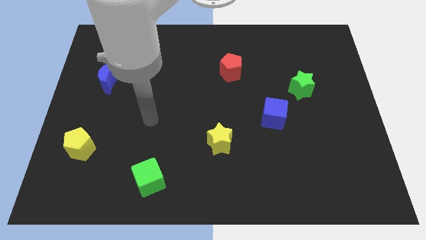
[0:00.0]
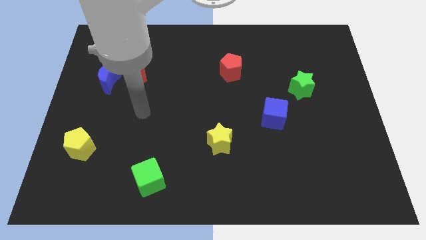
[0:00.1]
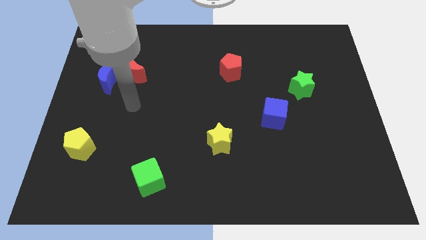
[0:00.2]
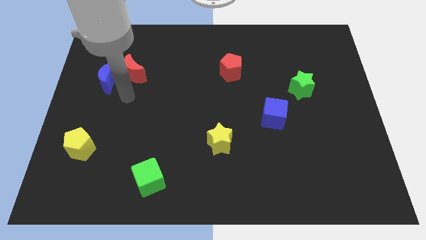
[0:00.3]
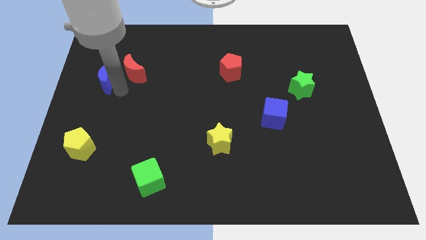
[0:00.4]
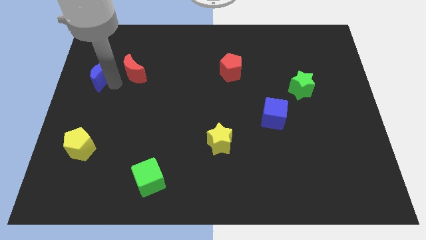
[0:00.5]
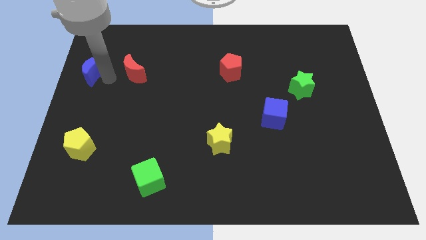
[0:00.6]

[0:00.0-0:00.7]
move the red moon away from the blue moon

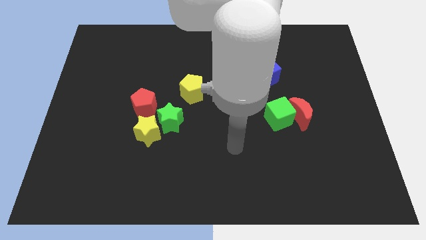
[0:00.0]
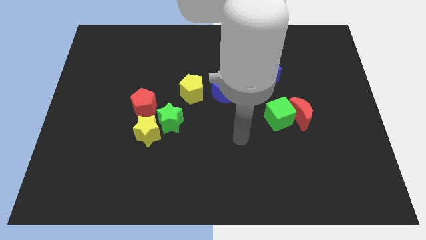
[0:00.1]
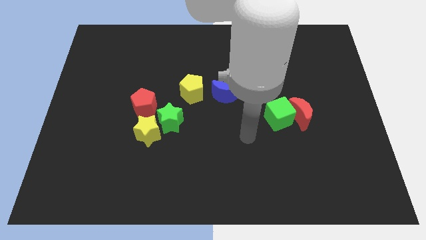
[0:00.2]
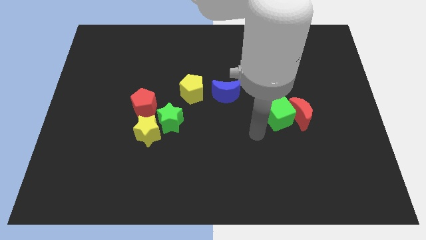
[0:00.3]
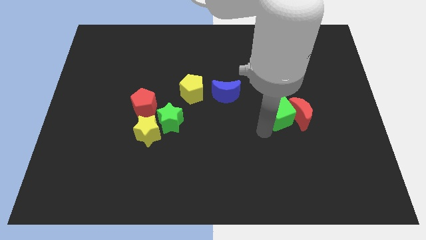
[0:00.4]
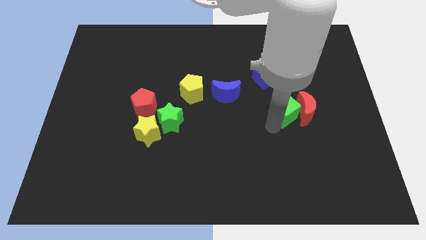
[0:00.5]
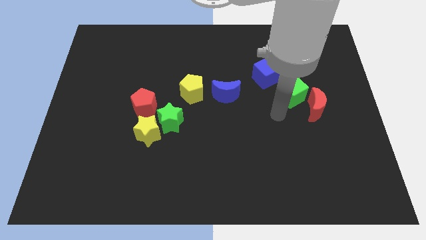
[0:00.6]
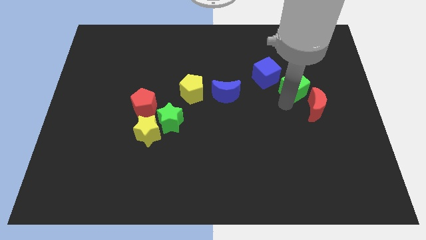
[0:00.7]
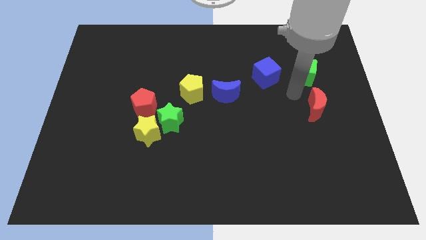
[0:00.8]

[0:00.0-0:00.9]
separate the red moon from the green cube

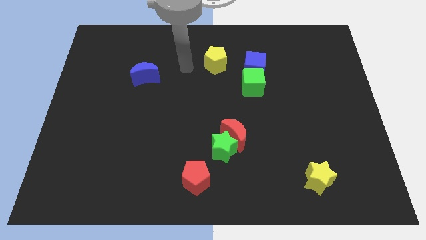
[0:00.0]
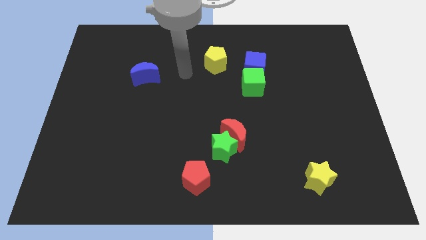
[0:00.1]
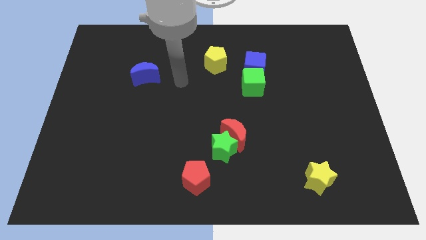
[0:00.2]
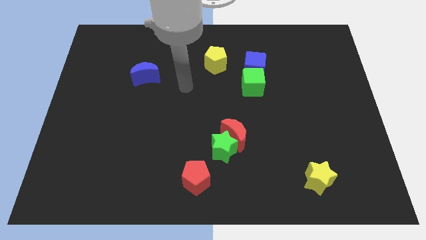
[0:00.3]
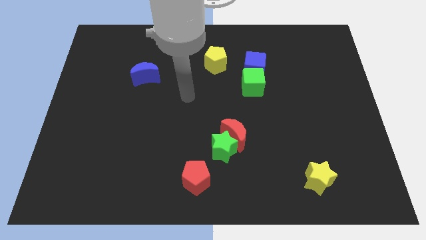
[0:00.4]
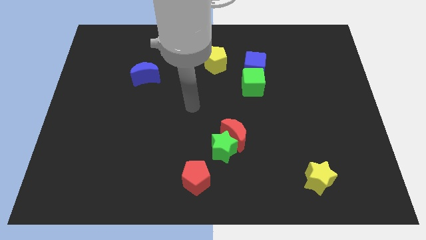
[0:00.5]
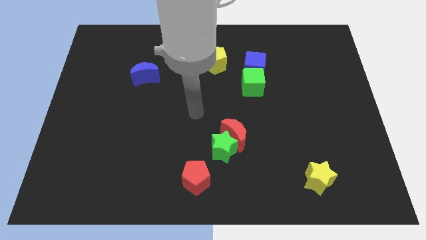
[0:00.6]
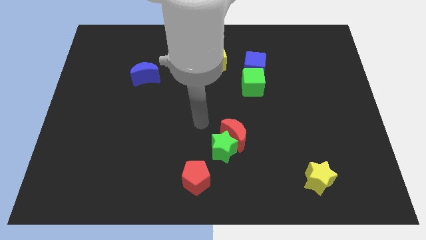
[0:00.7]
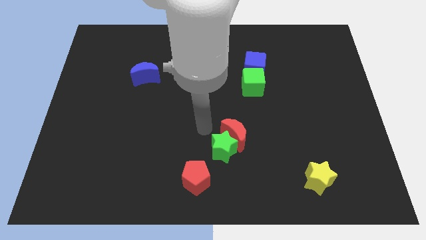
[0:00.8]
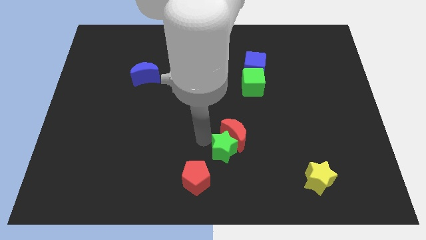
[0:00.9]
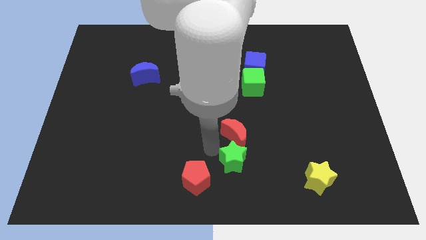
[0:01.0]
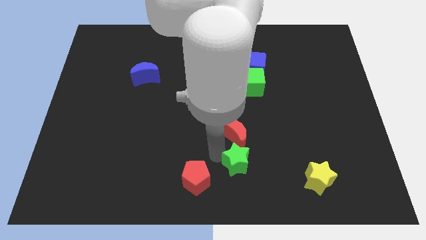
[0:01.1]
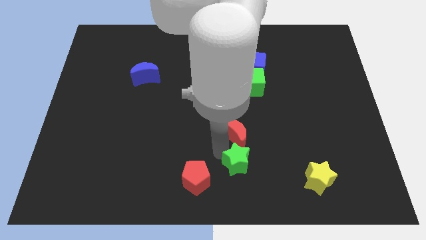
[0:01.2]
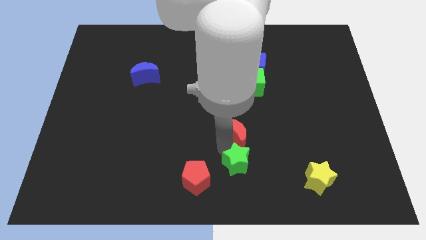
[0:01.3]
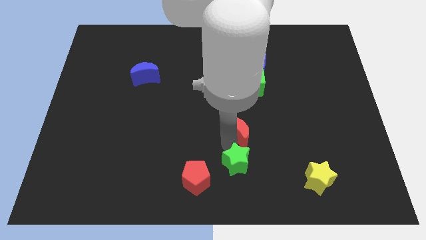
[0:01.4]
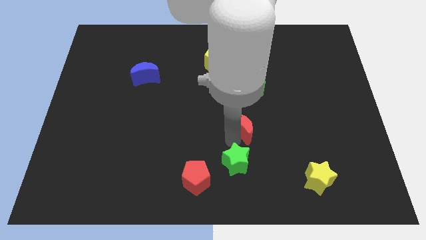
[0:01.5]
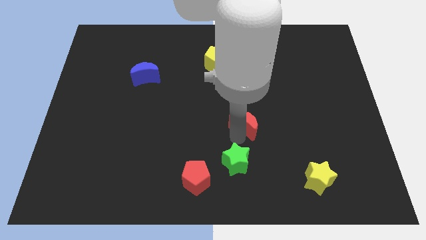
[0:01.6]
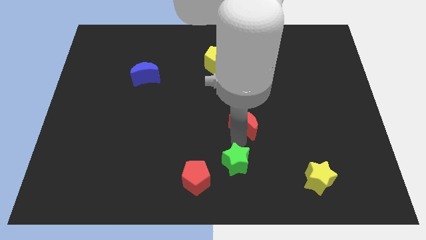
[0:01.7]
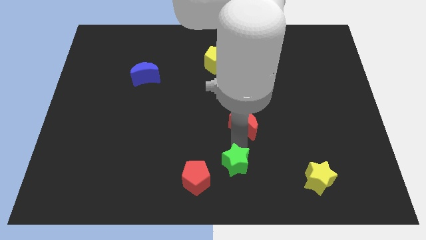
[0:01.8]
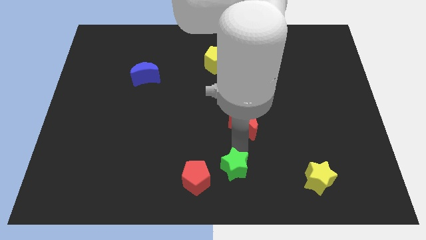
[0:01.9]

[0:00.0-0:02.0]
separate the red moon from the green star

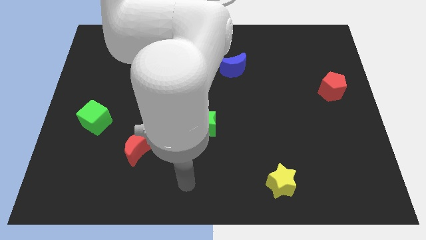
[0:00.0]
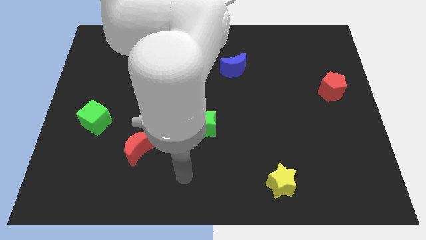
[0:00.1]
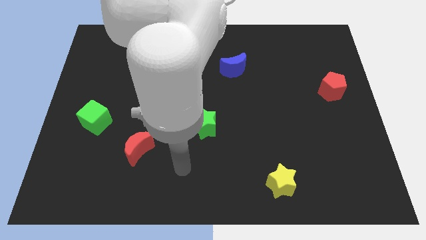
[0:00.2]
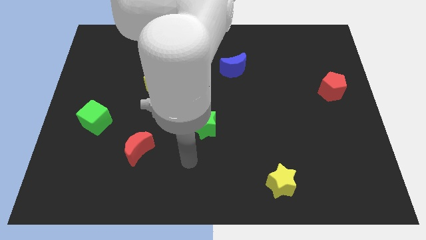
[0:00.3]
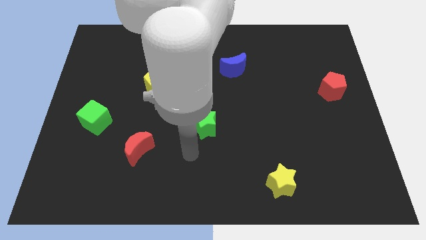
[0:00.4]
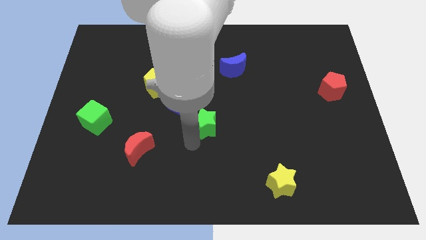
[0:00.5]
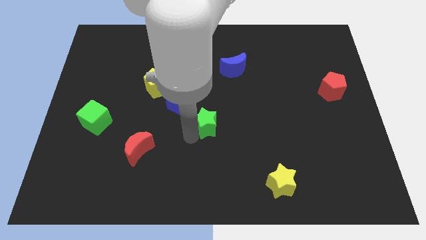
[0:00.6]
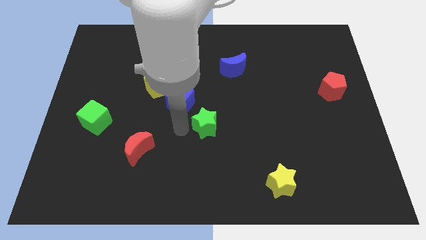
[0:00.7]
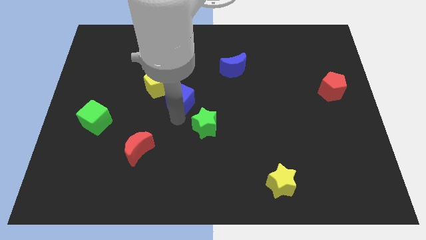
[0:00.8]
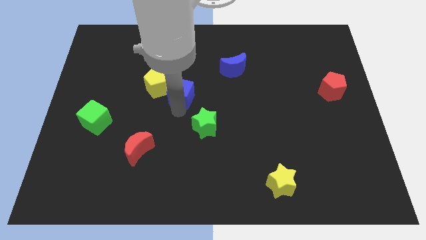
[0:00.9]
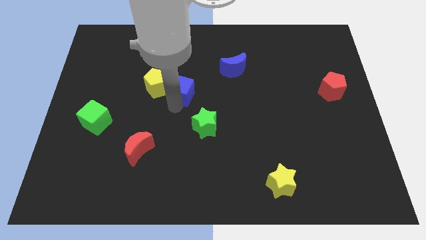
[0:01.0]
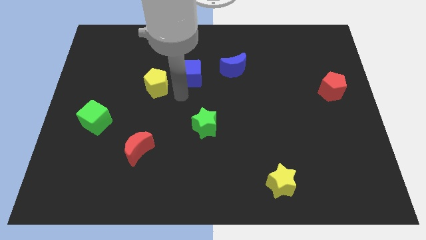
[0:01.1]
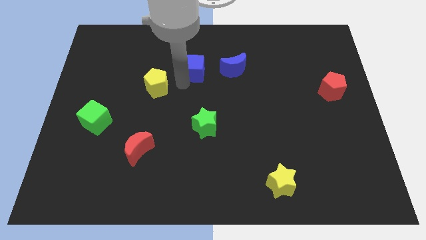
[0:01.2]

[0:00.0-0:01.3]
move the yellow pentagon away from the blue cube

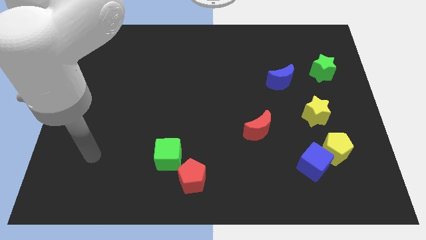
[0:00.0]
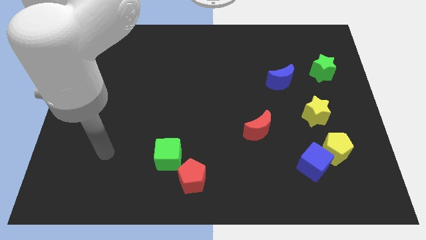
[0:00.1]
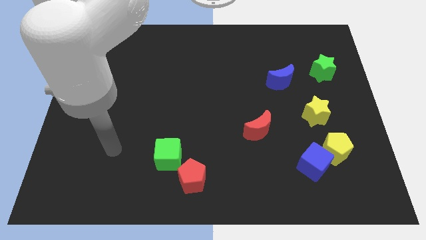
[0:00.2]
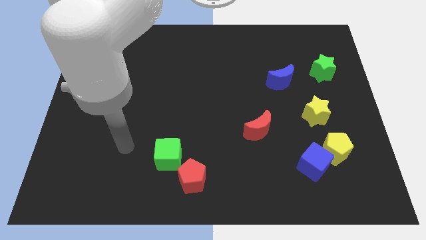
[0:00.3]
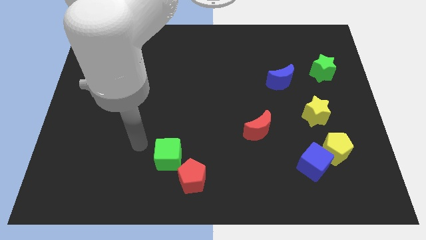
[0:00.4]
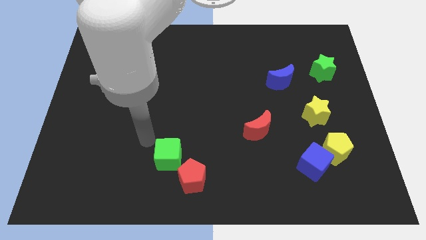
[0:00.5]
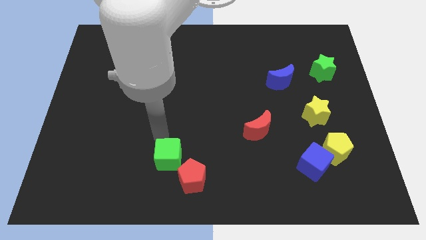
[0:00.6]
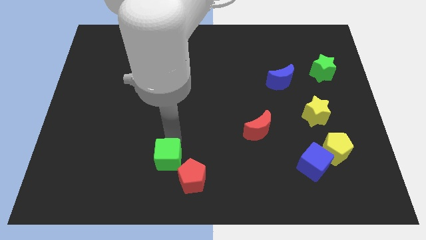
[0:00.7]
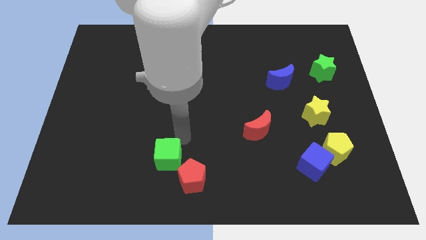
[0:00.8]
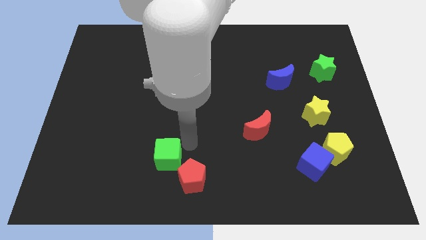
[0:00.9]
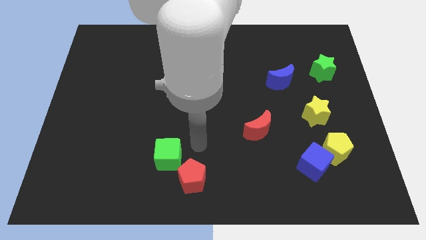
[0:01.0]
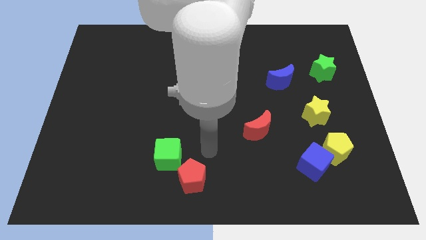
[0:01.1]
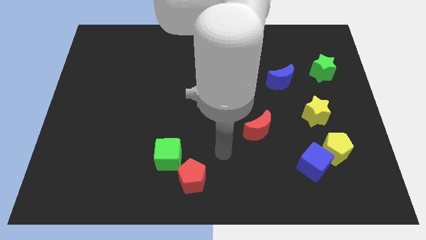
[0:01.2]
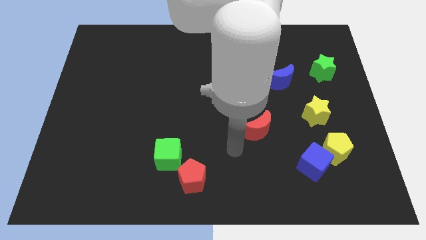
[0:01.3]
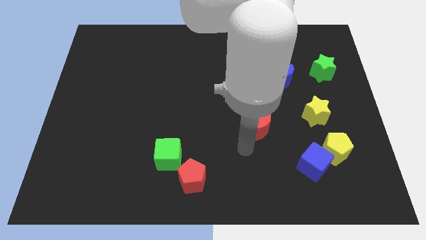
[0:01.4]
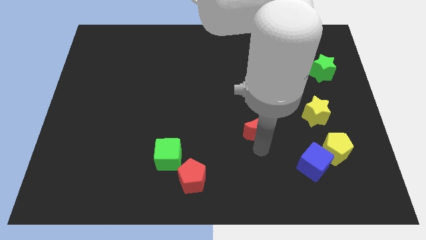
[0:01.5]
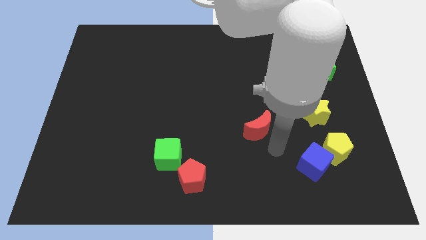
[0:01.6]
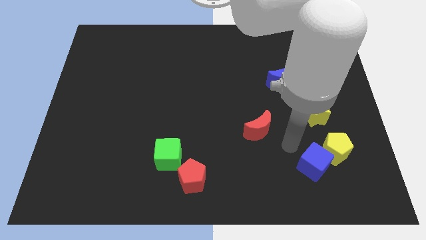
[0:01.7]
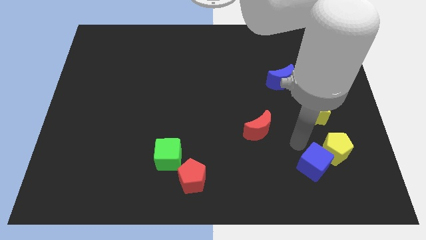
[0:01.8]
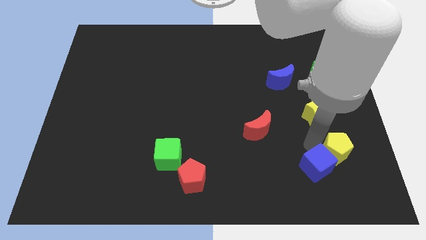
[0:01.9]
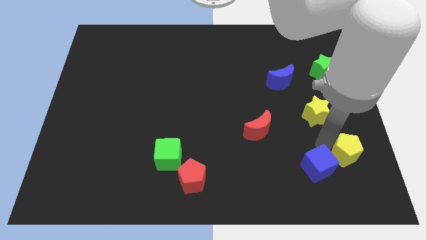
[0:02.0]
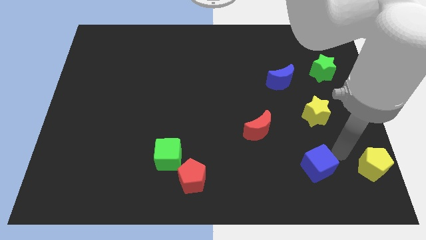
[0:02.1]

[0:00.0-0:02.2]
pull the blue cube apart from the yellow pentagon

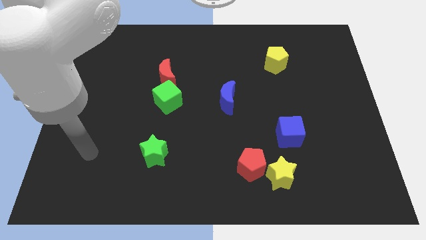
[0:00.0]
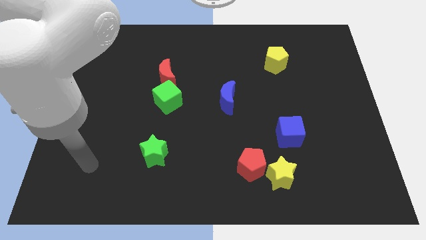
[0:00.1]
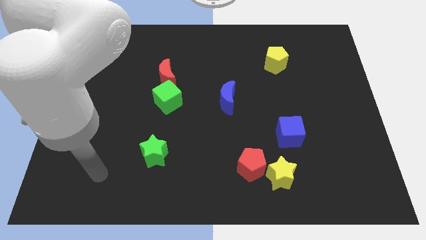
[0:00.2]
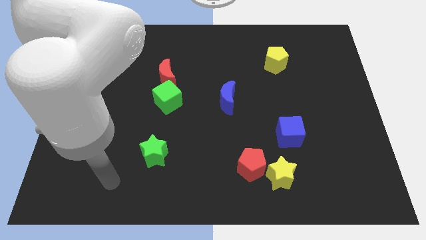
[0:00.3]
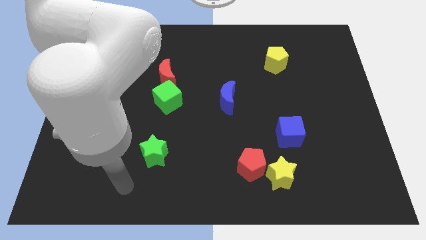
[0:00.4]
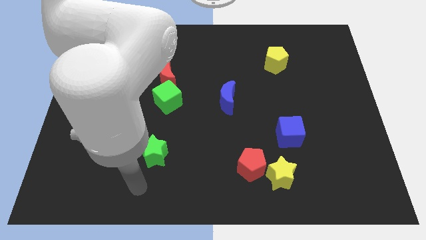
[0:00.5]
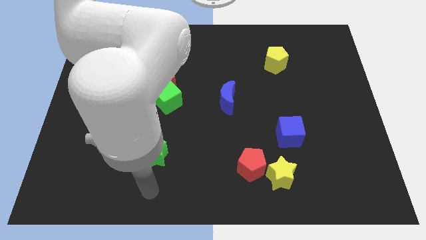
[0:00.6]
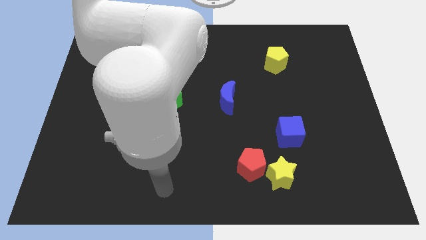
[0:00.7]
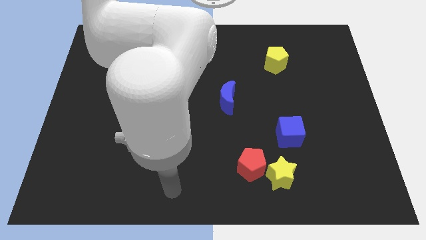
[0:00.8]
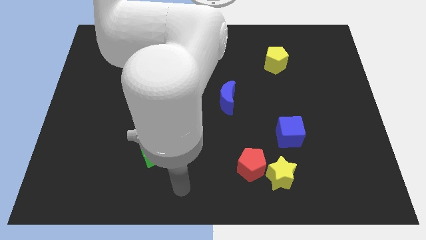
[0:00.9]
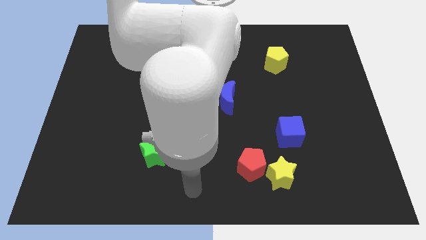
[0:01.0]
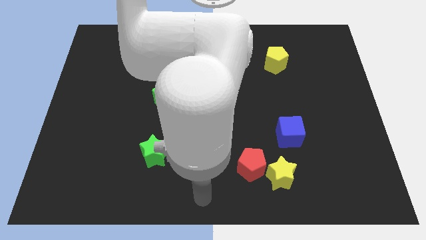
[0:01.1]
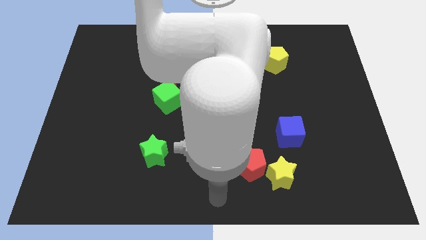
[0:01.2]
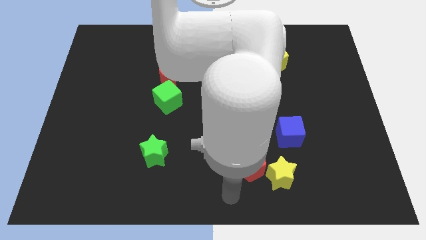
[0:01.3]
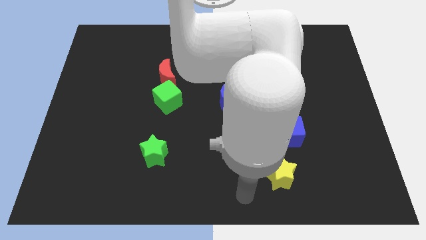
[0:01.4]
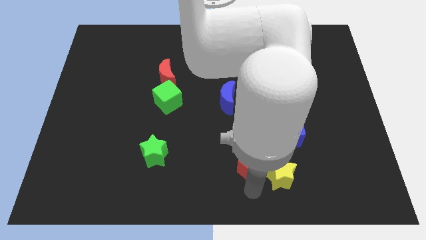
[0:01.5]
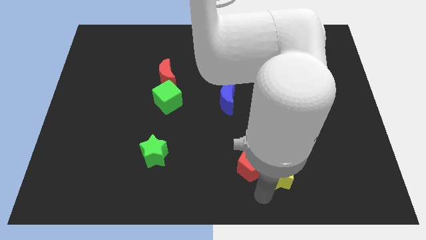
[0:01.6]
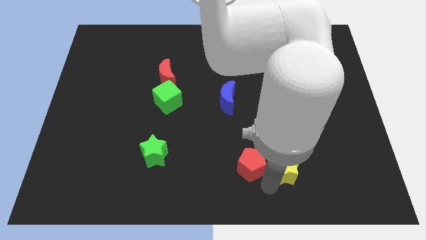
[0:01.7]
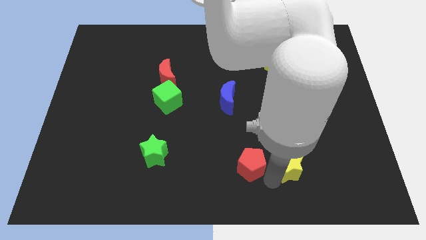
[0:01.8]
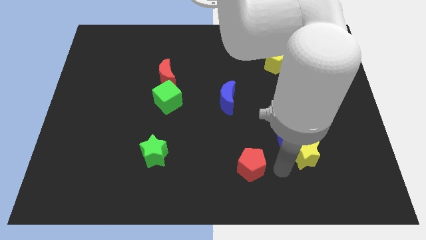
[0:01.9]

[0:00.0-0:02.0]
move the red pentagon away from the yellow star

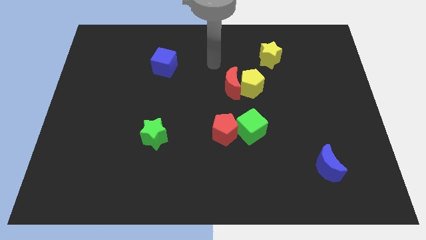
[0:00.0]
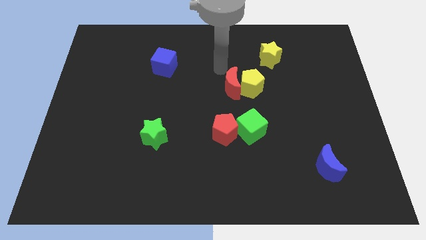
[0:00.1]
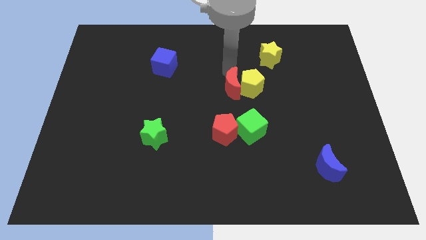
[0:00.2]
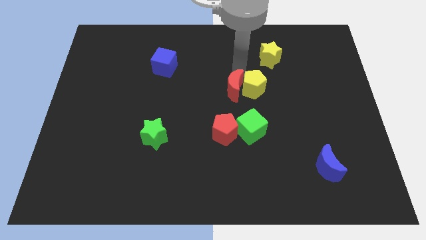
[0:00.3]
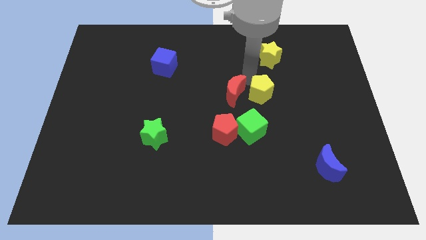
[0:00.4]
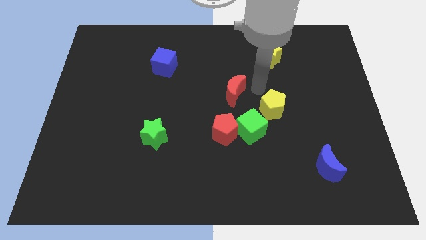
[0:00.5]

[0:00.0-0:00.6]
pull the red moon apart from the yellow pentagon
